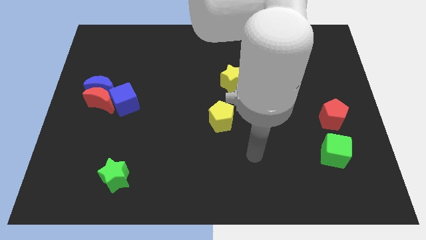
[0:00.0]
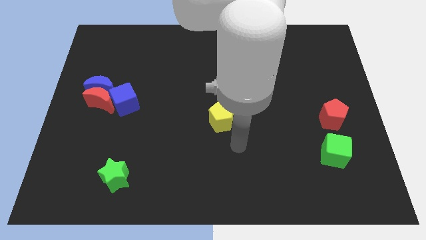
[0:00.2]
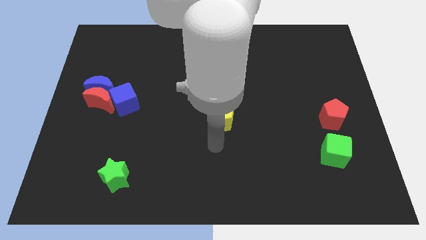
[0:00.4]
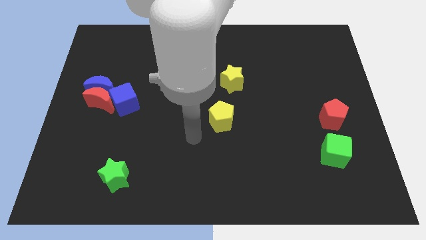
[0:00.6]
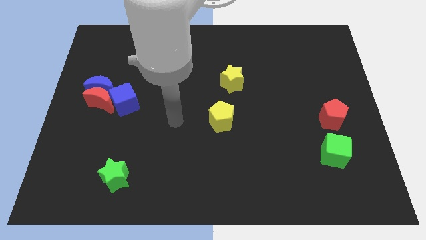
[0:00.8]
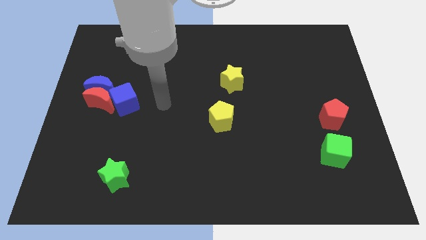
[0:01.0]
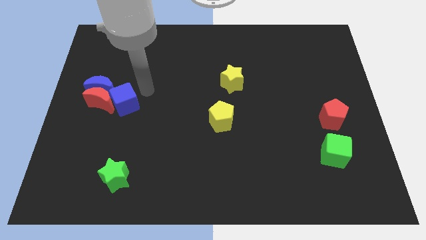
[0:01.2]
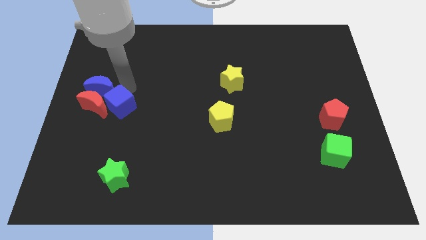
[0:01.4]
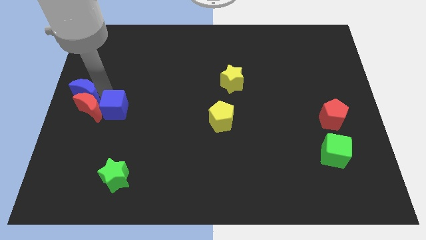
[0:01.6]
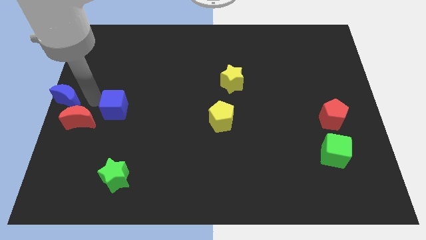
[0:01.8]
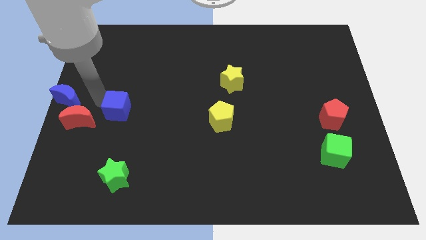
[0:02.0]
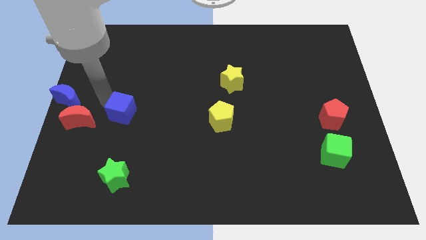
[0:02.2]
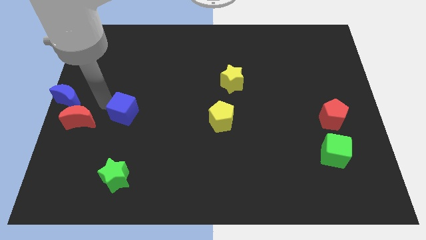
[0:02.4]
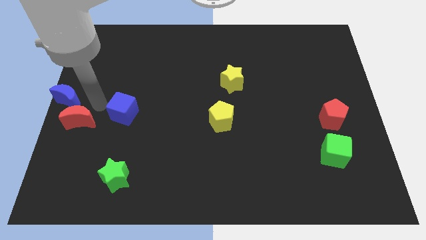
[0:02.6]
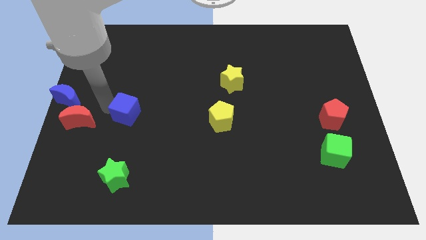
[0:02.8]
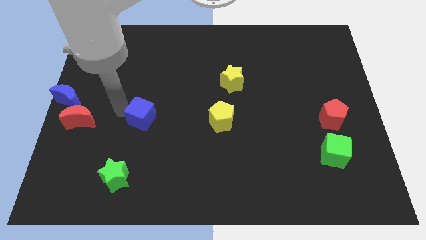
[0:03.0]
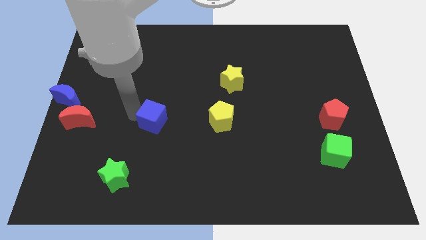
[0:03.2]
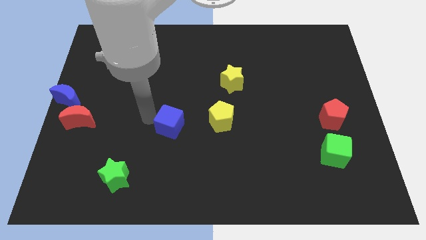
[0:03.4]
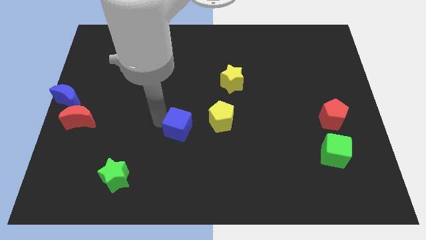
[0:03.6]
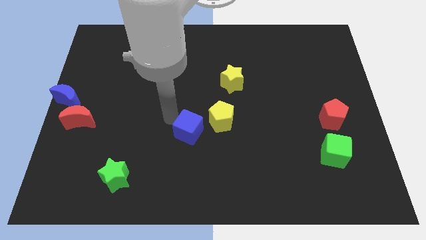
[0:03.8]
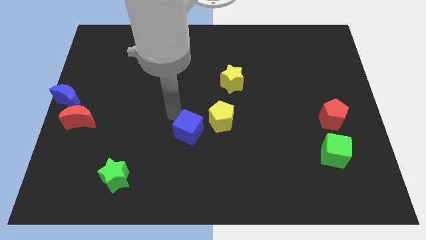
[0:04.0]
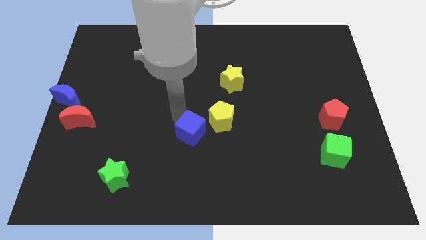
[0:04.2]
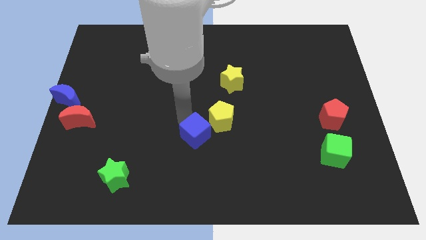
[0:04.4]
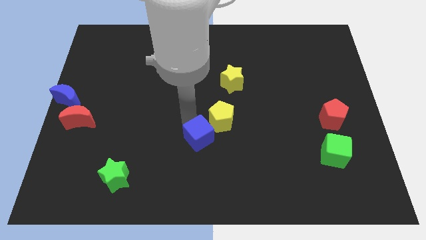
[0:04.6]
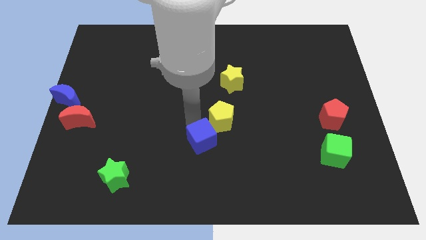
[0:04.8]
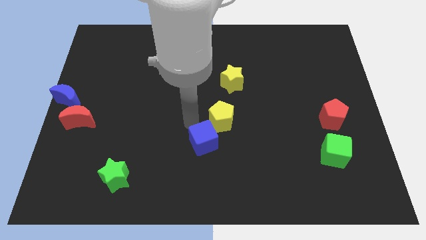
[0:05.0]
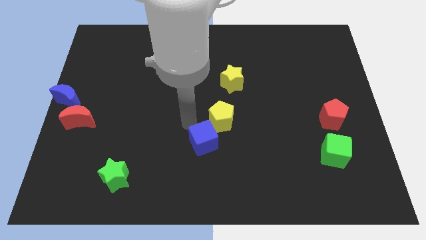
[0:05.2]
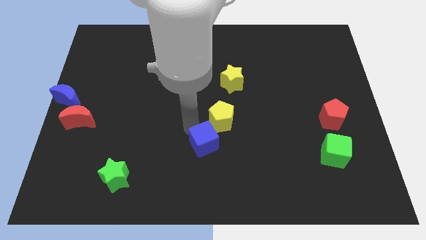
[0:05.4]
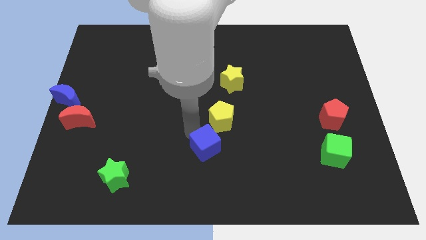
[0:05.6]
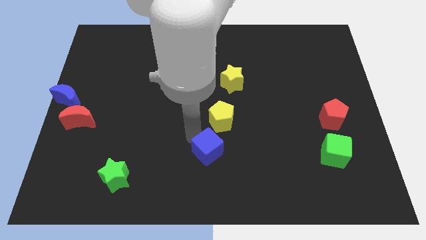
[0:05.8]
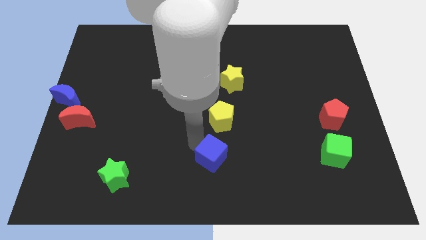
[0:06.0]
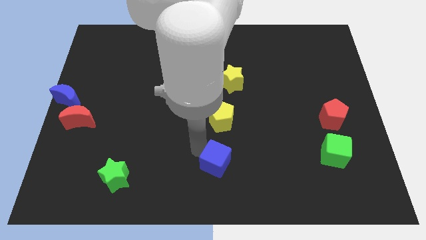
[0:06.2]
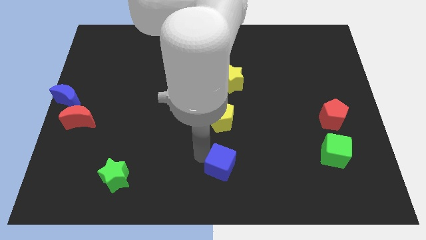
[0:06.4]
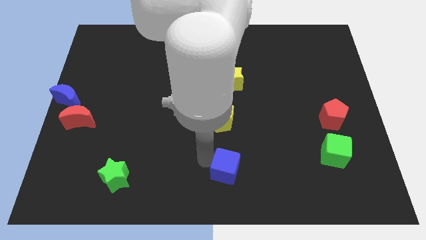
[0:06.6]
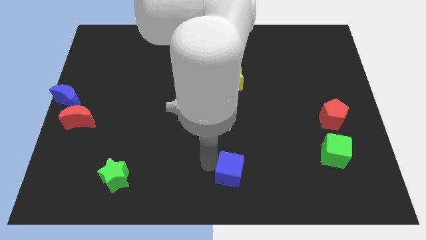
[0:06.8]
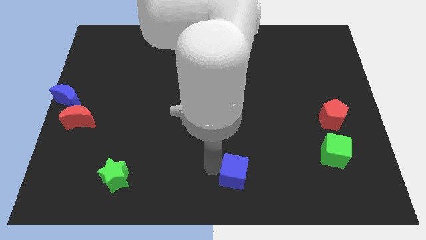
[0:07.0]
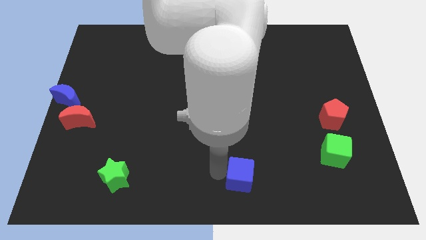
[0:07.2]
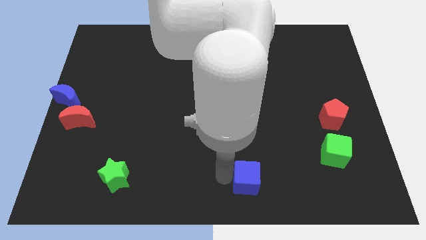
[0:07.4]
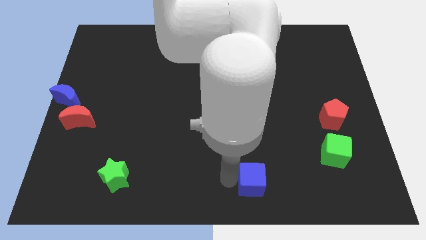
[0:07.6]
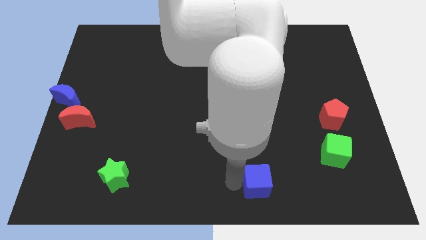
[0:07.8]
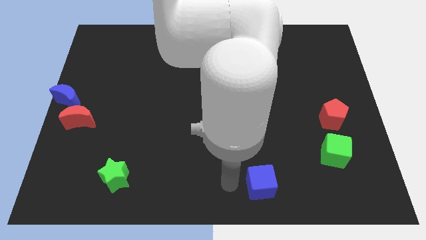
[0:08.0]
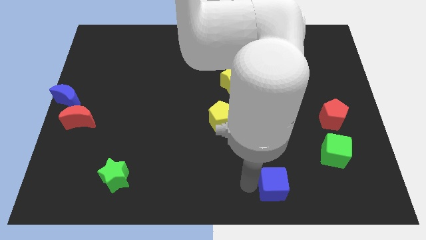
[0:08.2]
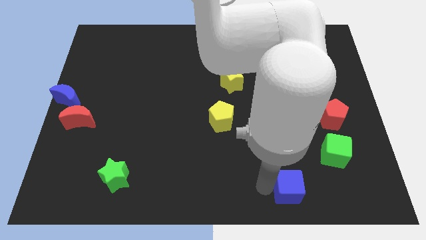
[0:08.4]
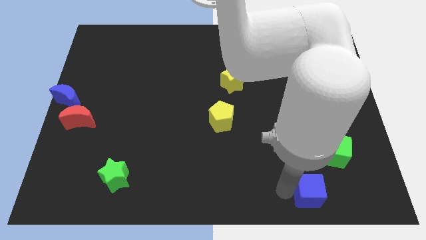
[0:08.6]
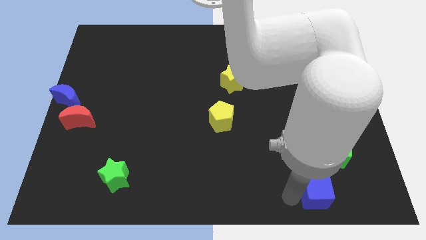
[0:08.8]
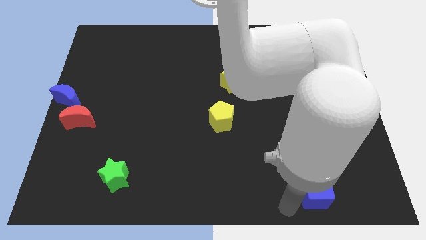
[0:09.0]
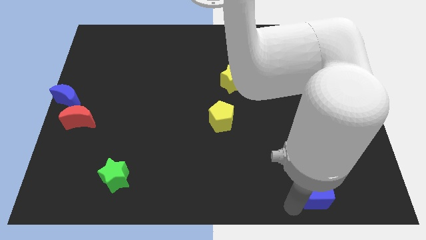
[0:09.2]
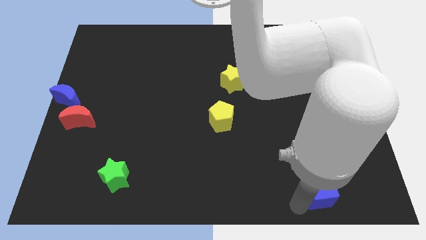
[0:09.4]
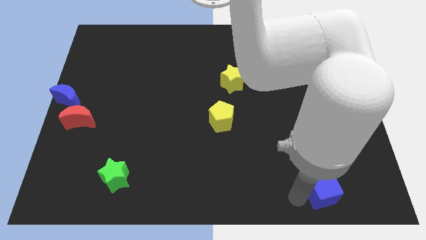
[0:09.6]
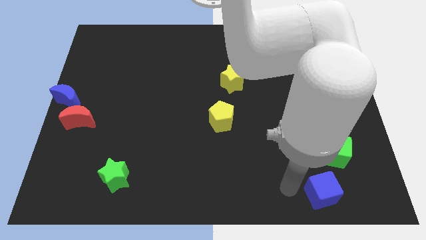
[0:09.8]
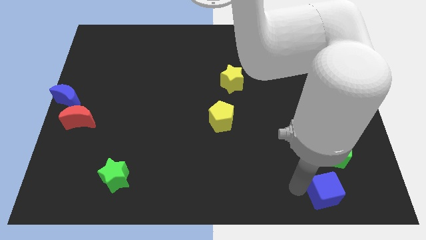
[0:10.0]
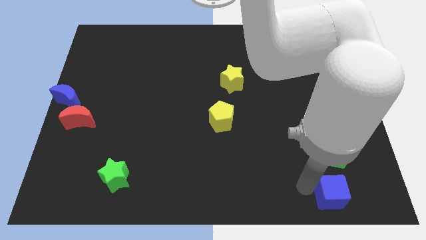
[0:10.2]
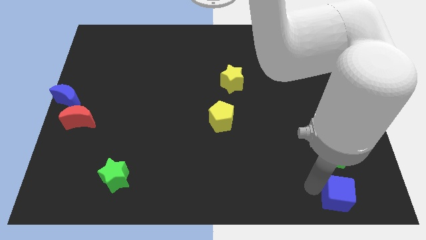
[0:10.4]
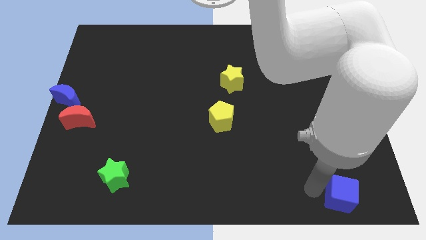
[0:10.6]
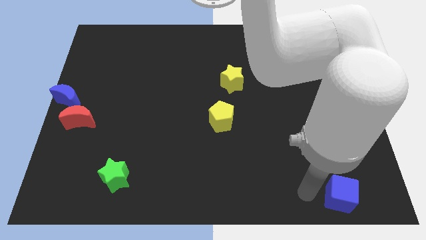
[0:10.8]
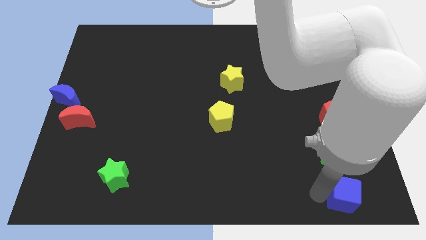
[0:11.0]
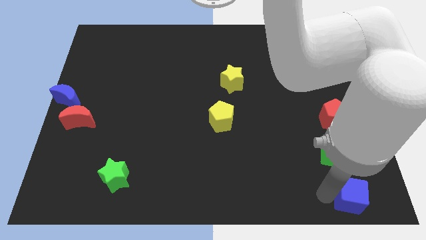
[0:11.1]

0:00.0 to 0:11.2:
push the blue cube to the bottom right of the board

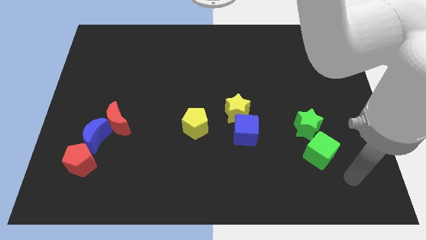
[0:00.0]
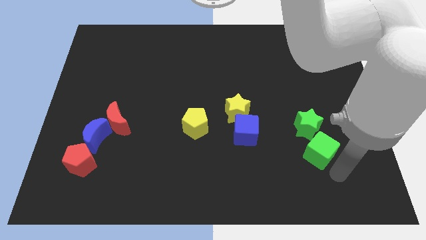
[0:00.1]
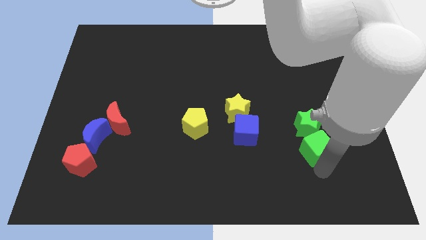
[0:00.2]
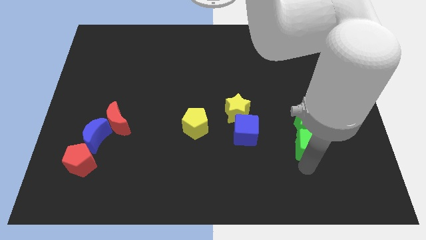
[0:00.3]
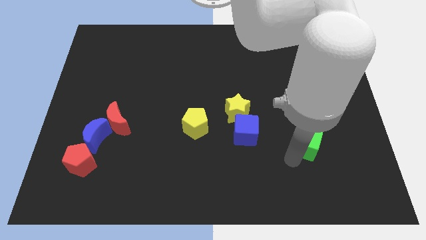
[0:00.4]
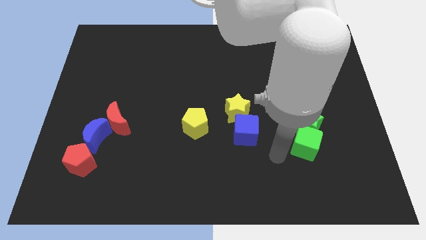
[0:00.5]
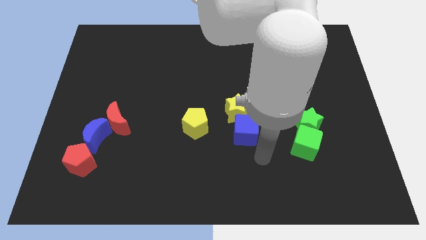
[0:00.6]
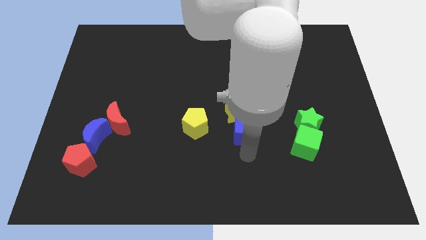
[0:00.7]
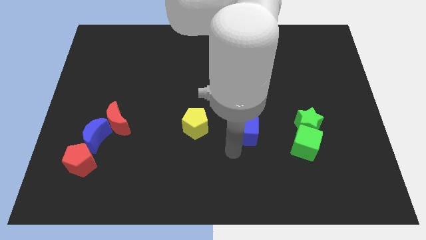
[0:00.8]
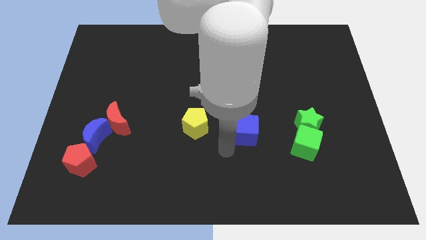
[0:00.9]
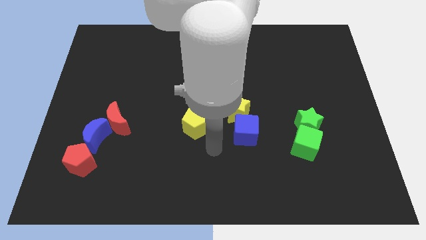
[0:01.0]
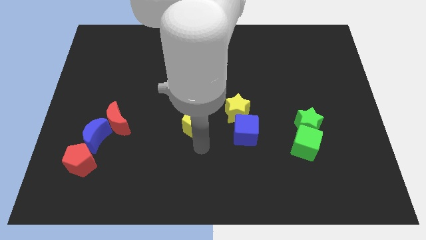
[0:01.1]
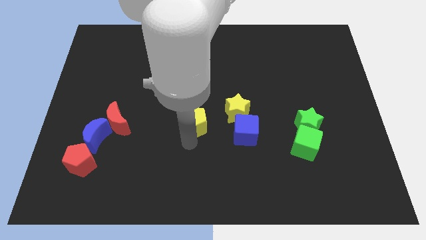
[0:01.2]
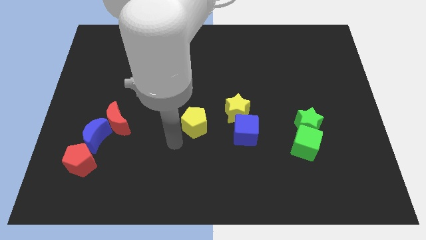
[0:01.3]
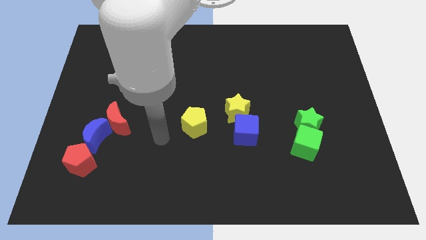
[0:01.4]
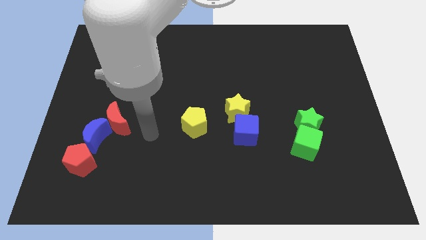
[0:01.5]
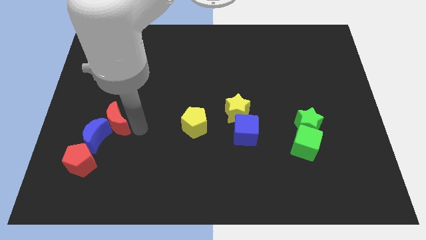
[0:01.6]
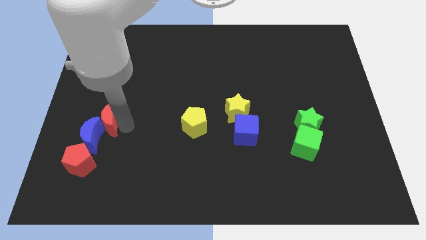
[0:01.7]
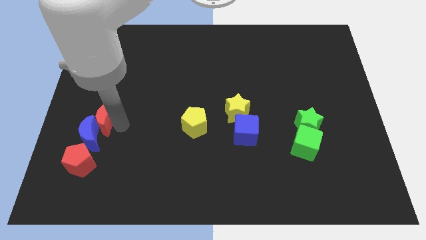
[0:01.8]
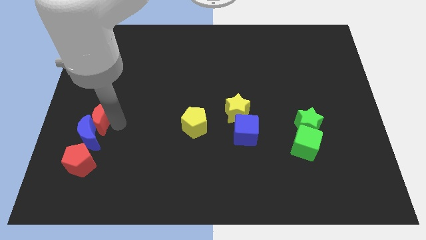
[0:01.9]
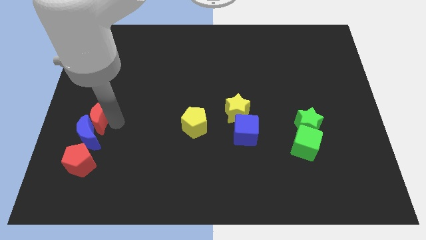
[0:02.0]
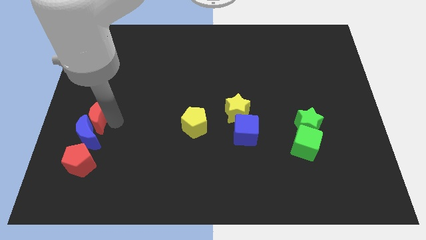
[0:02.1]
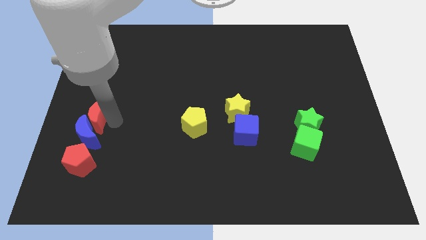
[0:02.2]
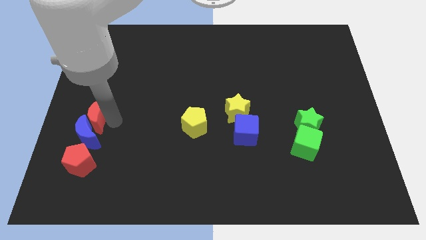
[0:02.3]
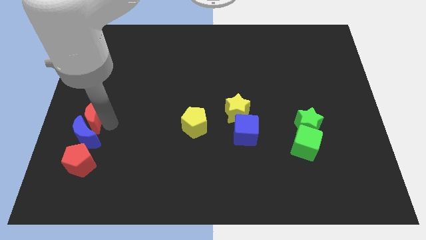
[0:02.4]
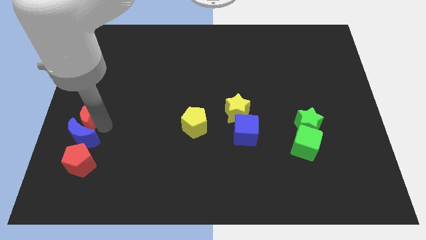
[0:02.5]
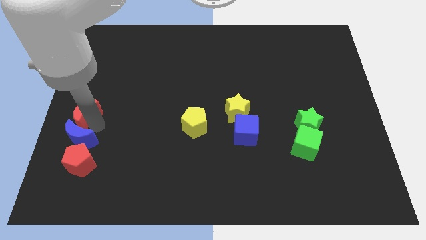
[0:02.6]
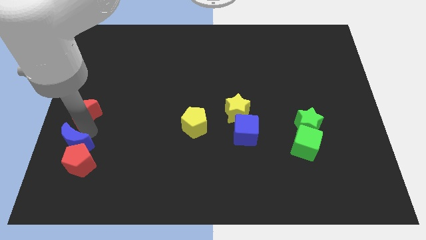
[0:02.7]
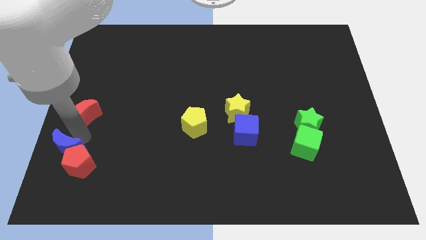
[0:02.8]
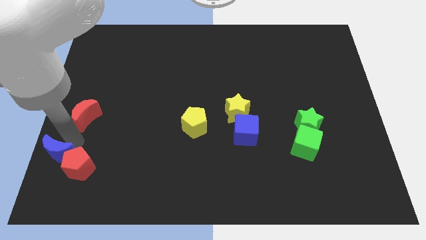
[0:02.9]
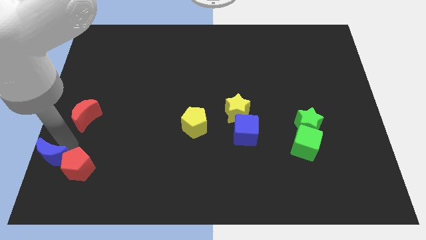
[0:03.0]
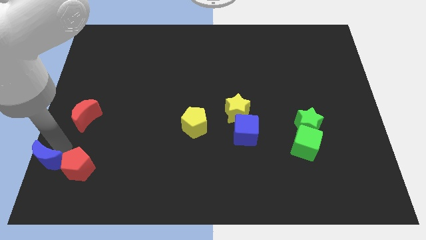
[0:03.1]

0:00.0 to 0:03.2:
push the blue moon to the bottom left of the board
